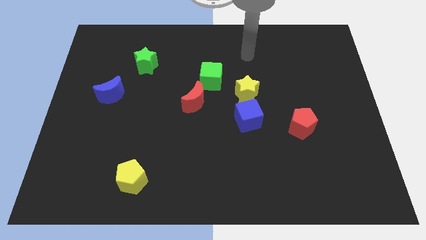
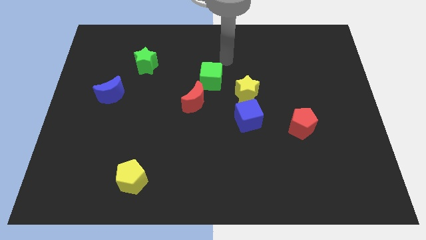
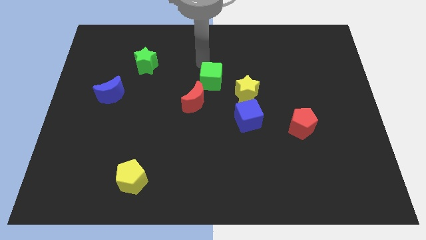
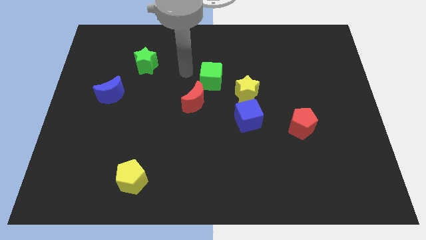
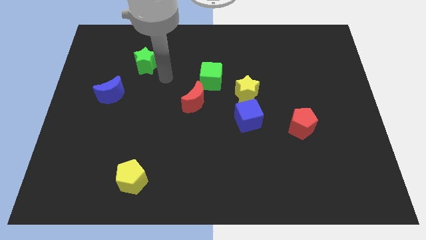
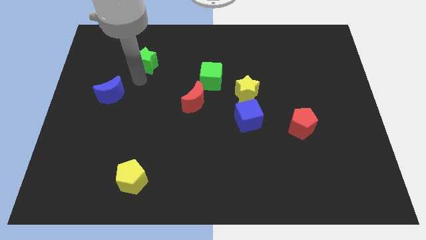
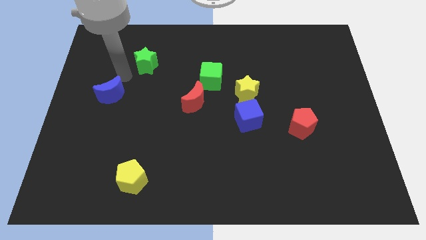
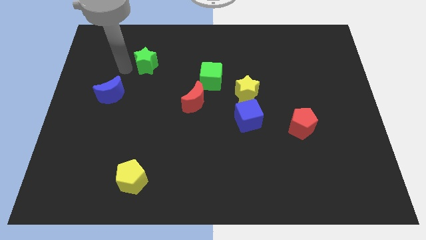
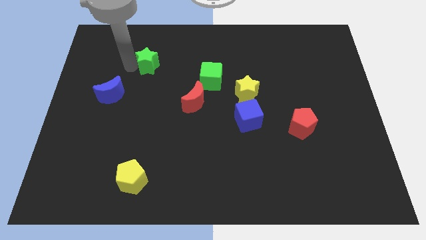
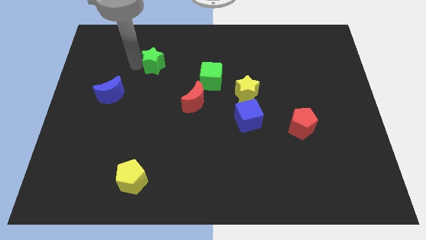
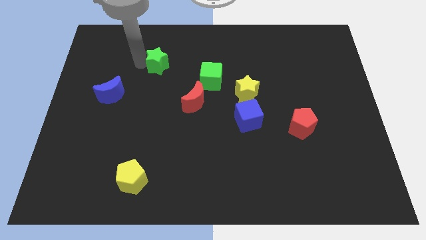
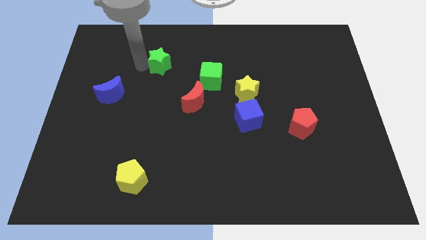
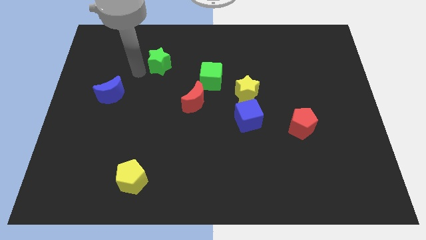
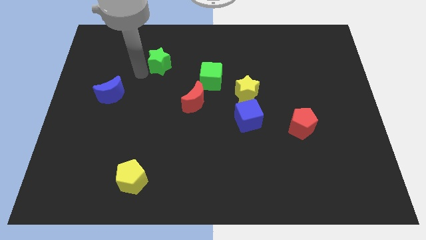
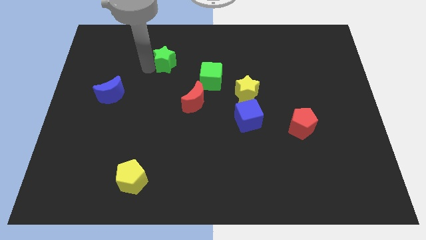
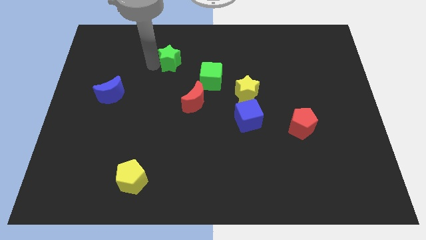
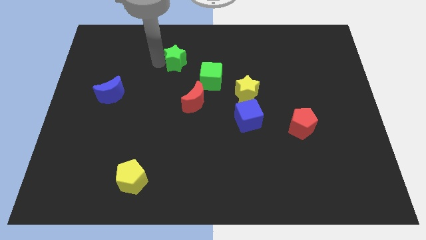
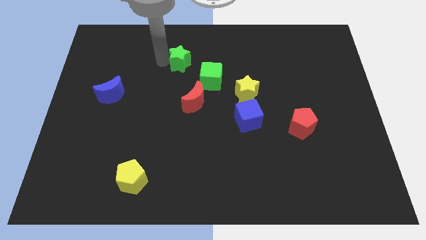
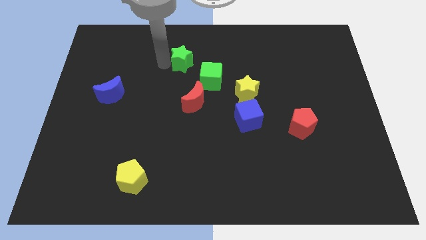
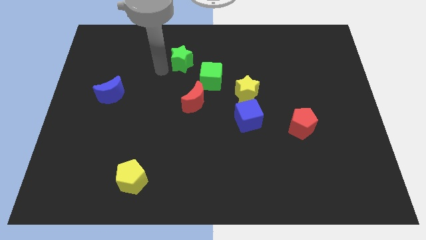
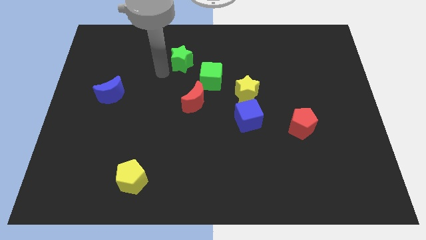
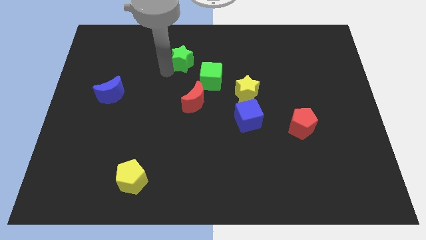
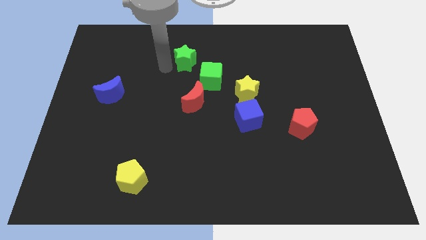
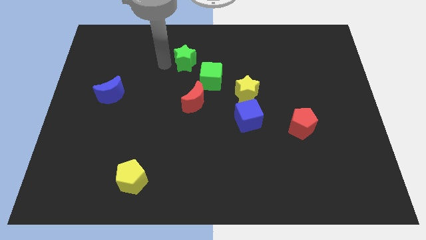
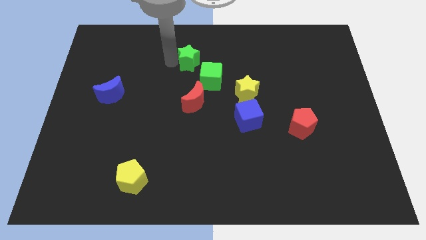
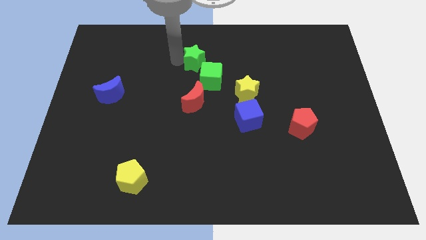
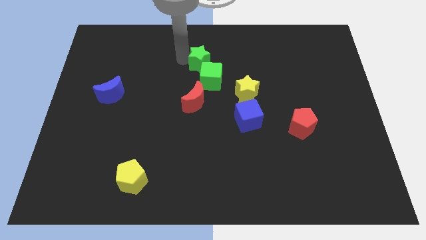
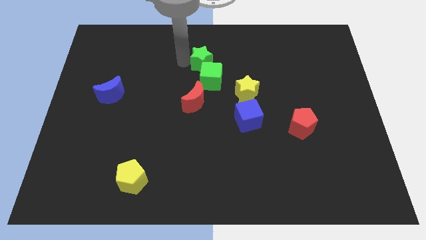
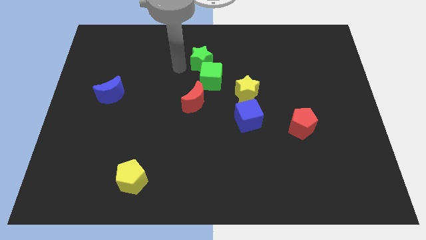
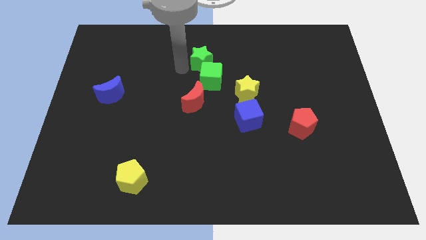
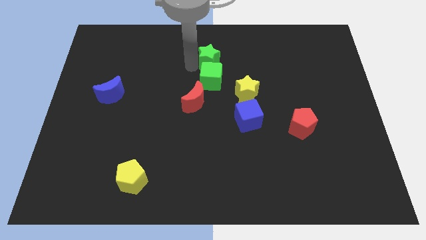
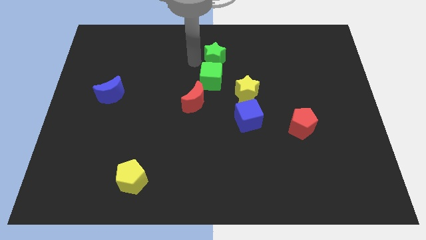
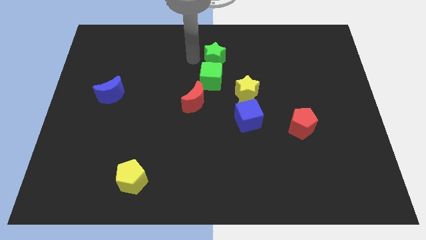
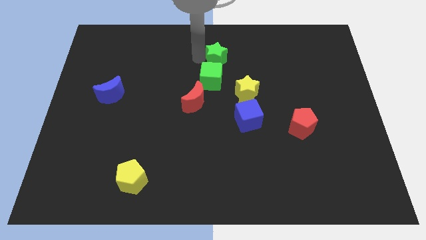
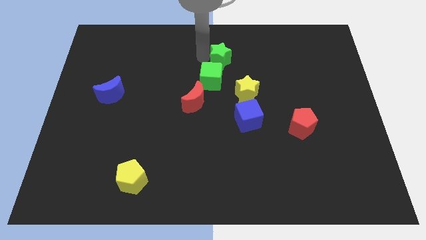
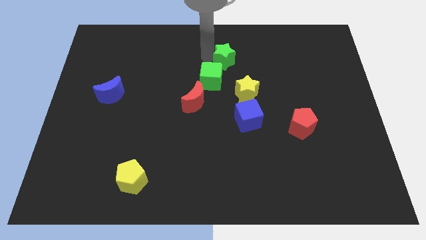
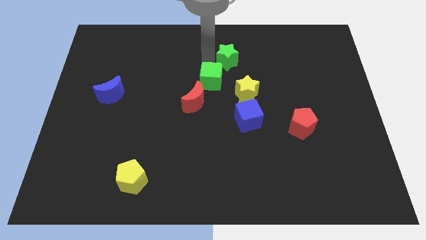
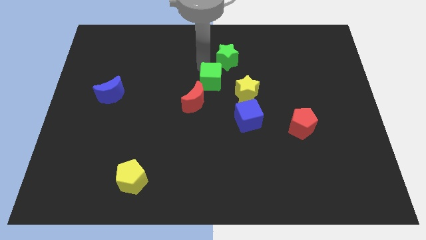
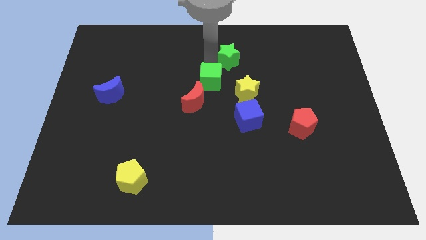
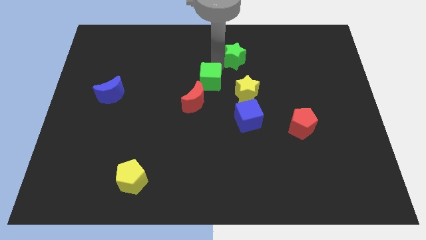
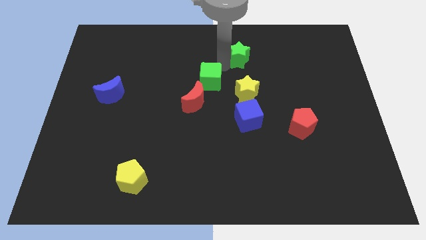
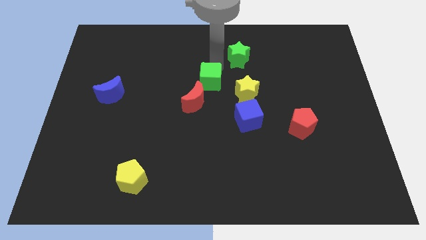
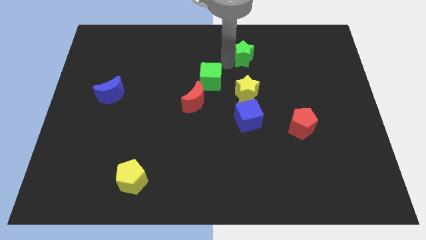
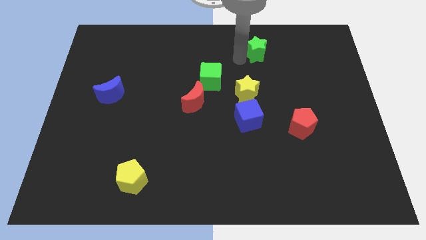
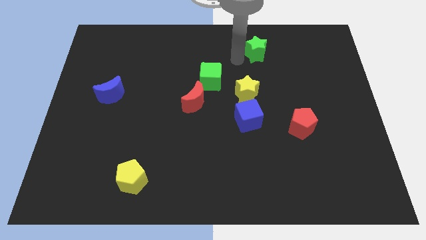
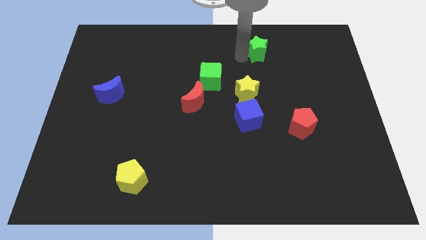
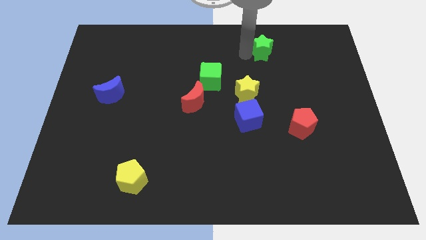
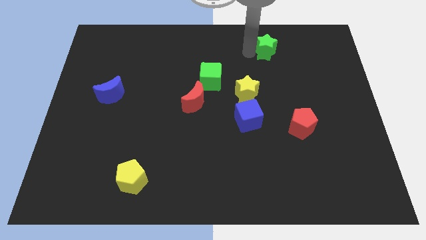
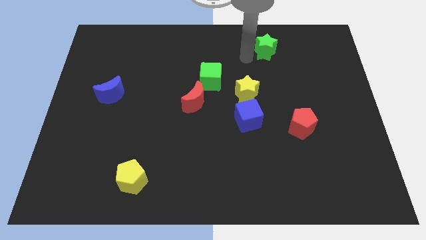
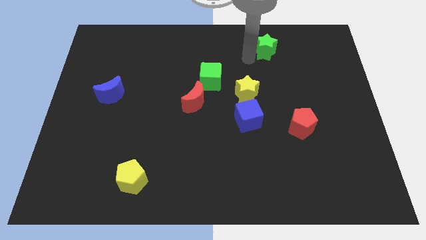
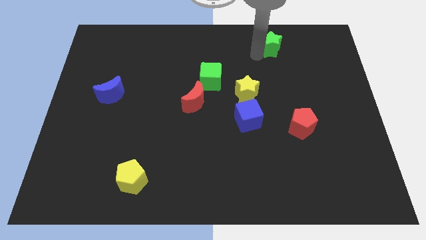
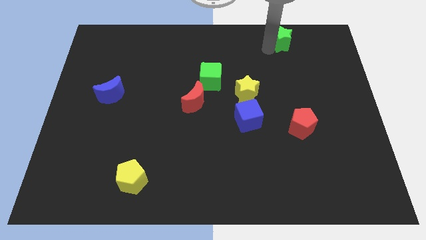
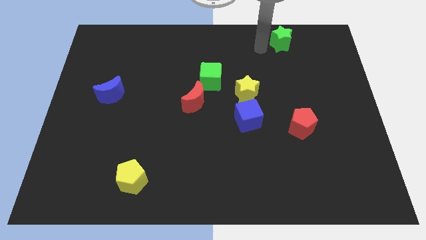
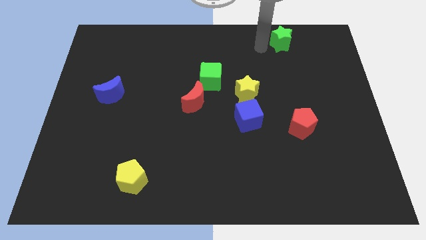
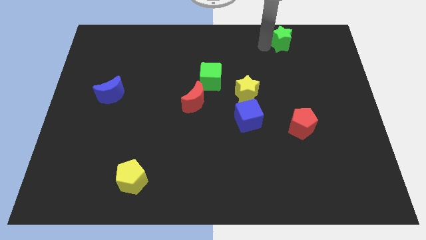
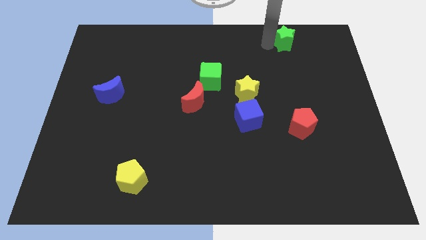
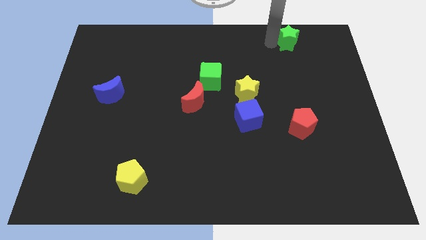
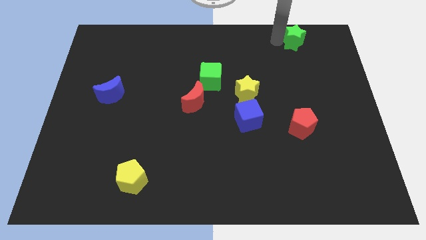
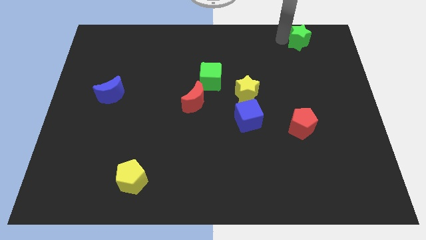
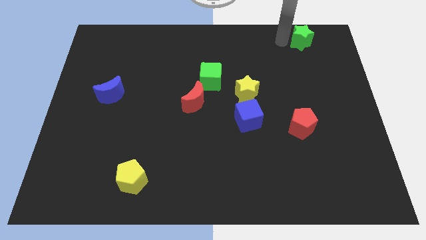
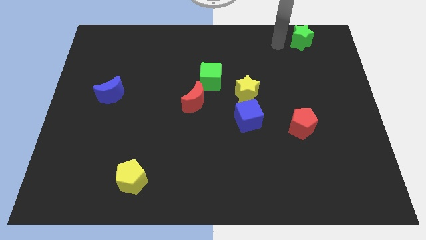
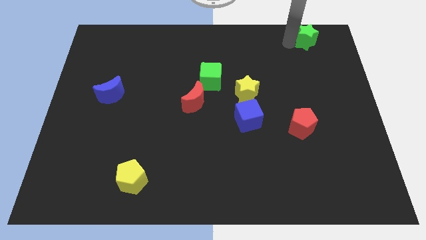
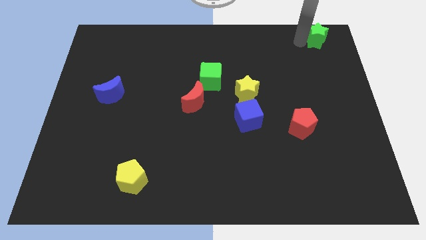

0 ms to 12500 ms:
push the green star to the upper right corner
